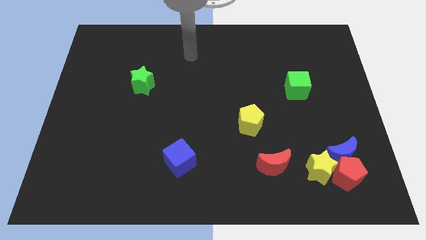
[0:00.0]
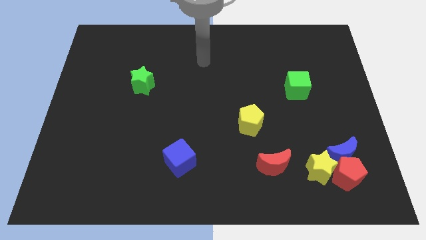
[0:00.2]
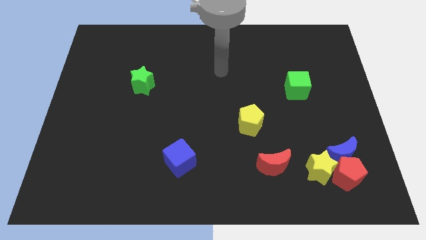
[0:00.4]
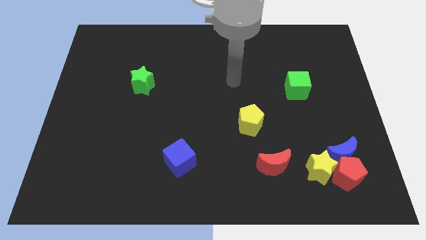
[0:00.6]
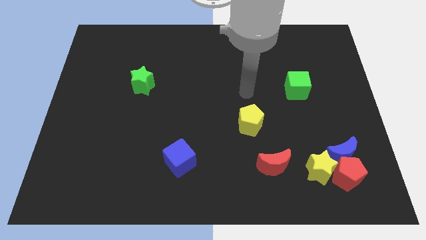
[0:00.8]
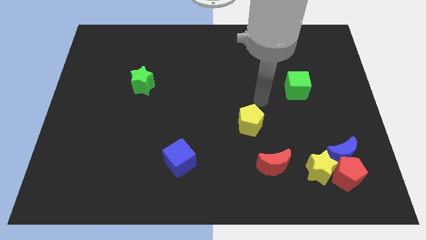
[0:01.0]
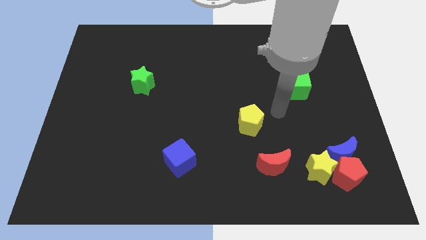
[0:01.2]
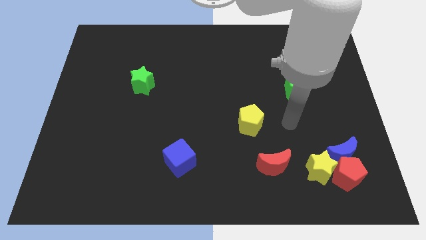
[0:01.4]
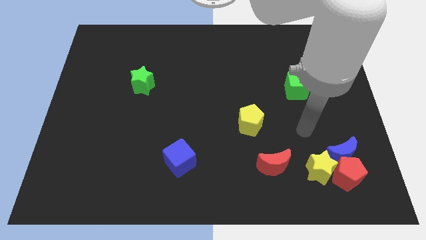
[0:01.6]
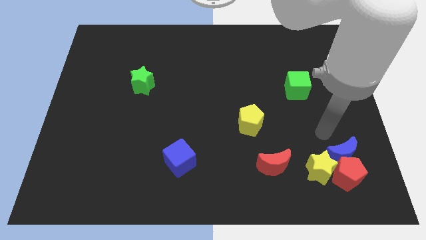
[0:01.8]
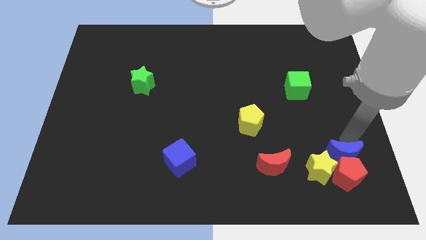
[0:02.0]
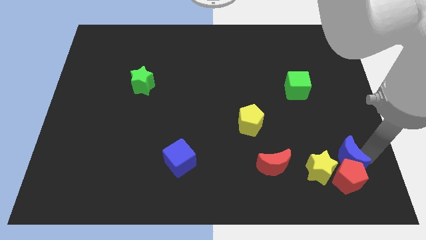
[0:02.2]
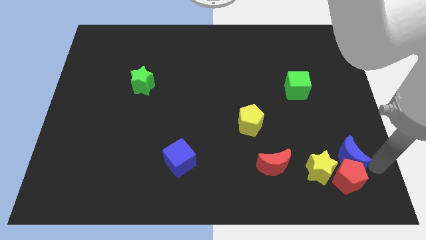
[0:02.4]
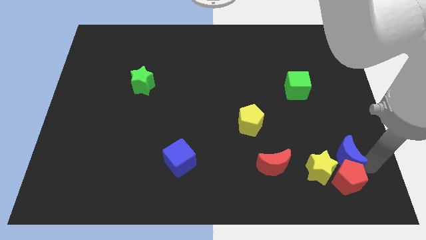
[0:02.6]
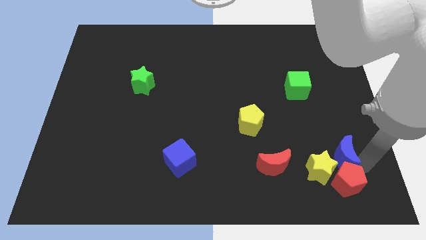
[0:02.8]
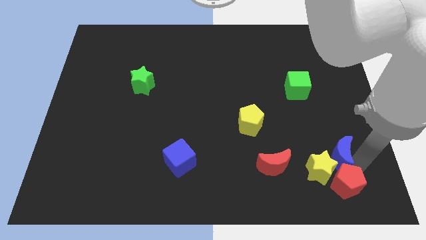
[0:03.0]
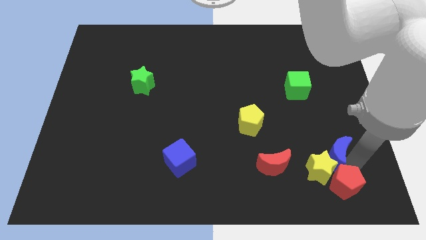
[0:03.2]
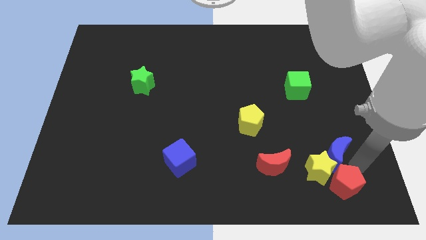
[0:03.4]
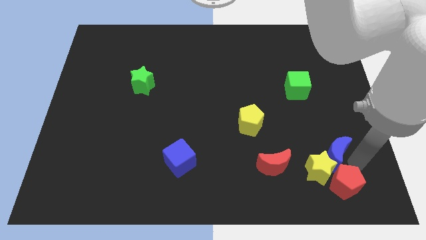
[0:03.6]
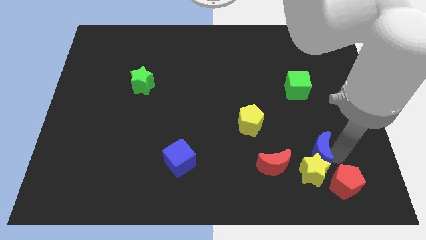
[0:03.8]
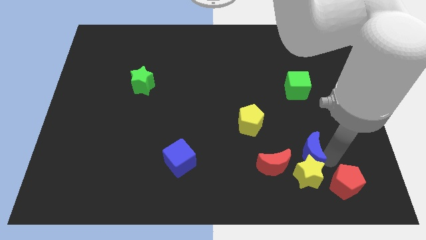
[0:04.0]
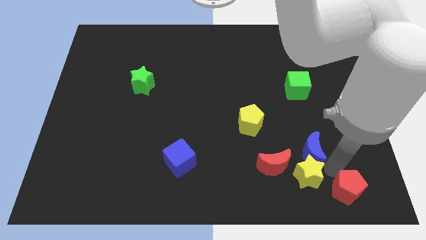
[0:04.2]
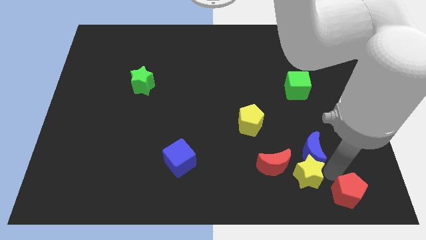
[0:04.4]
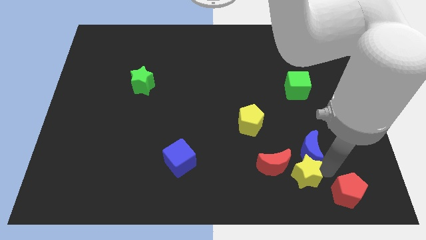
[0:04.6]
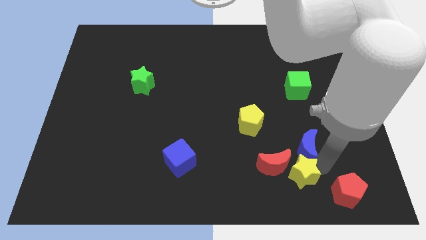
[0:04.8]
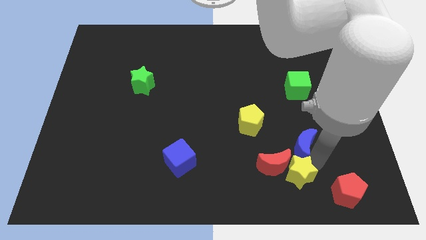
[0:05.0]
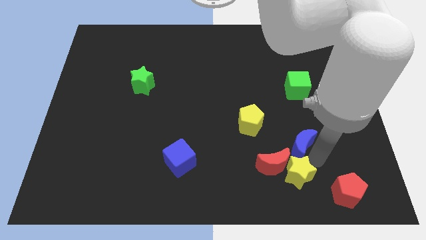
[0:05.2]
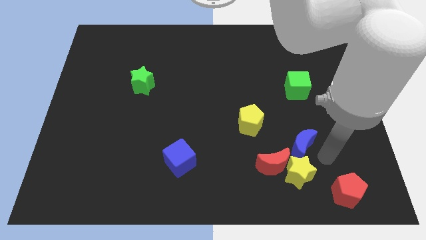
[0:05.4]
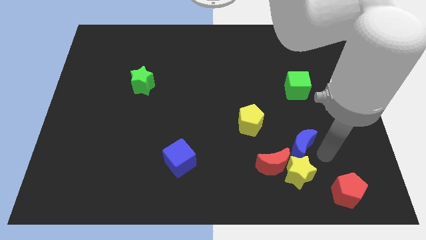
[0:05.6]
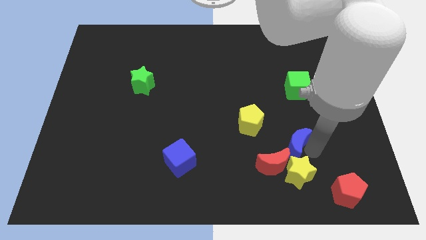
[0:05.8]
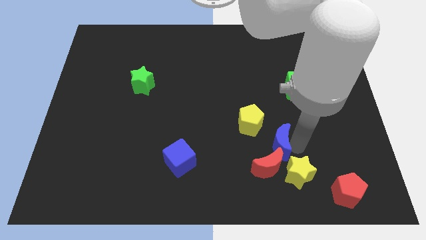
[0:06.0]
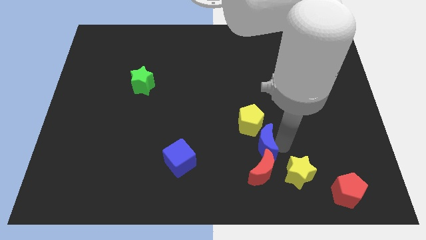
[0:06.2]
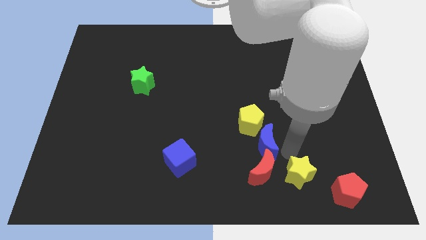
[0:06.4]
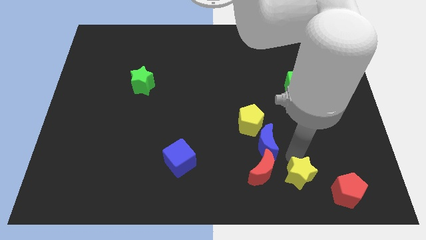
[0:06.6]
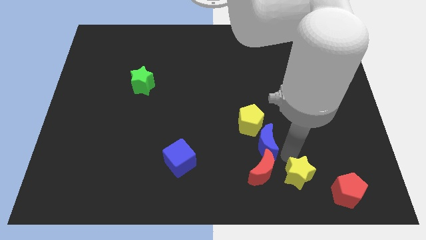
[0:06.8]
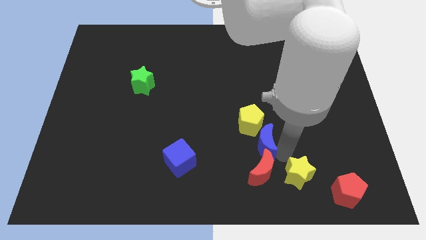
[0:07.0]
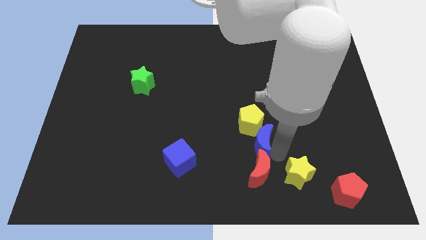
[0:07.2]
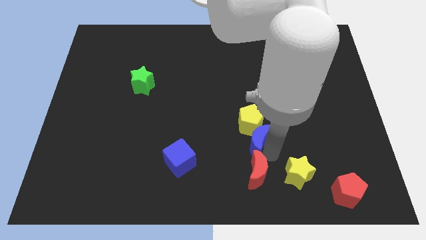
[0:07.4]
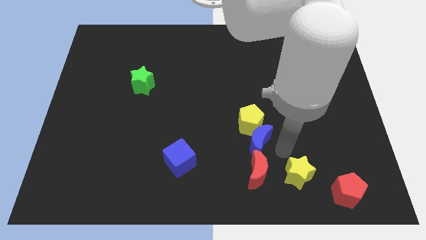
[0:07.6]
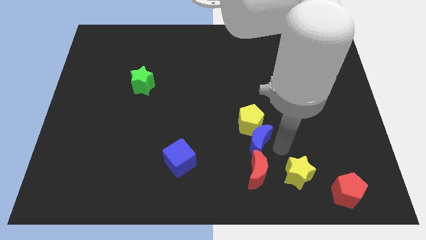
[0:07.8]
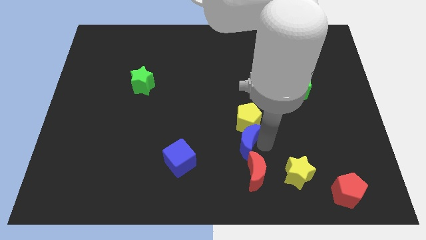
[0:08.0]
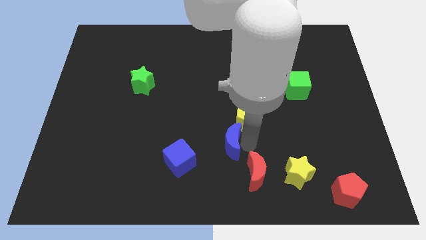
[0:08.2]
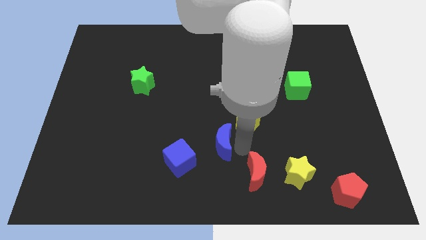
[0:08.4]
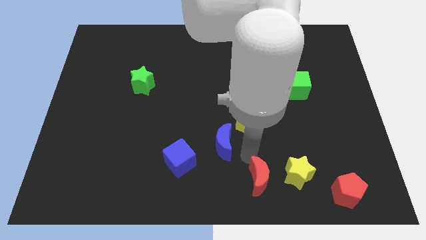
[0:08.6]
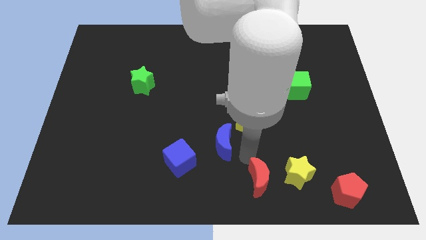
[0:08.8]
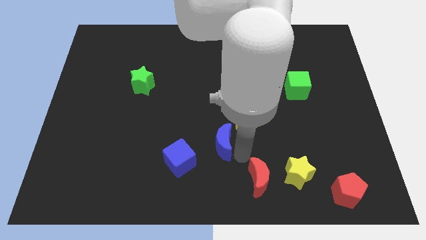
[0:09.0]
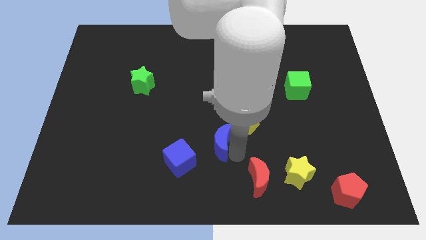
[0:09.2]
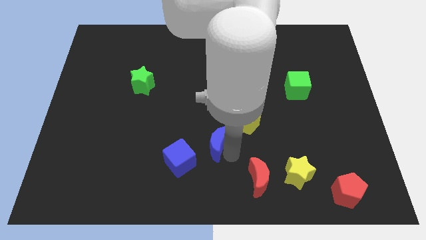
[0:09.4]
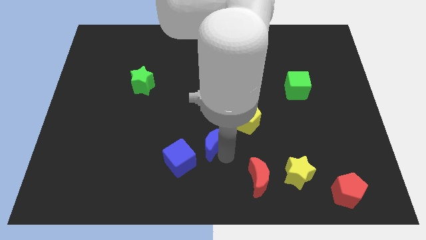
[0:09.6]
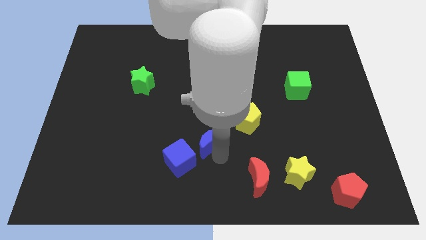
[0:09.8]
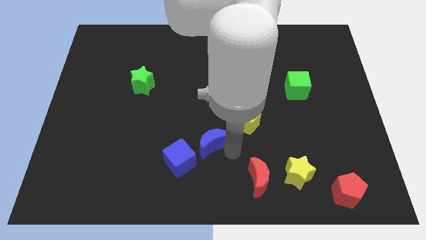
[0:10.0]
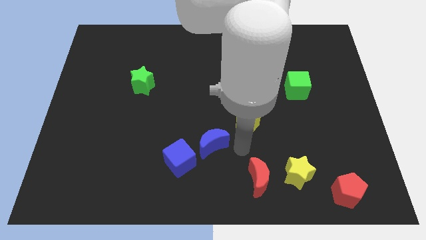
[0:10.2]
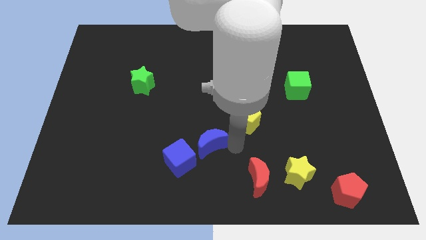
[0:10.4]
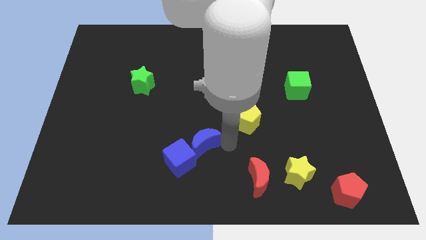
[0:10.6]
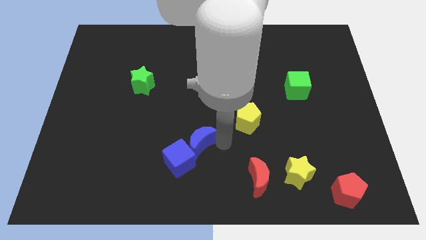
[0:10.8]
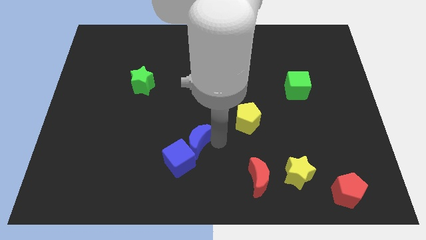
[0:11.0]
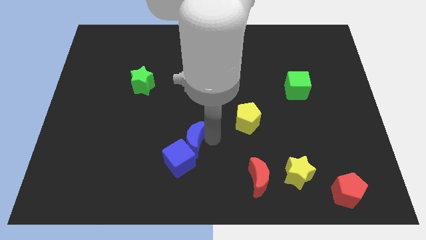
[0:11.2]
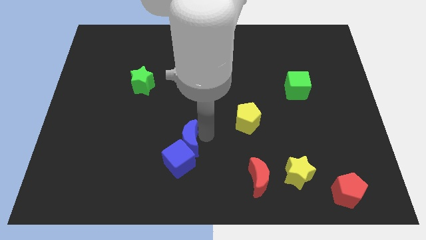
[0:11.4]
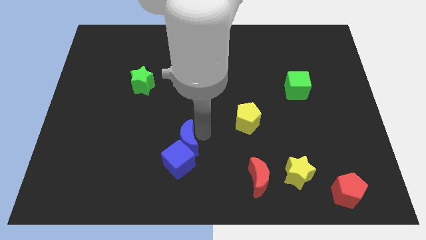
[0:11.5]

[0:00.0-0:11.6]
slide the blue moon diagonally up and to the left of the blue cube

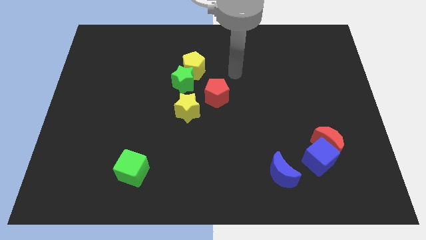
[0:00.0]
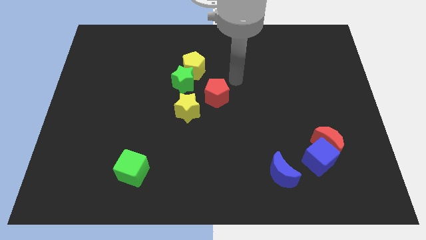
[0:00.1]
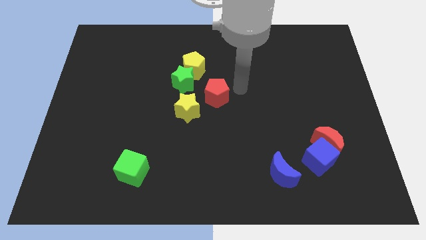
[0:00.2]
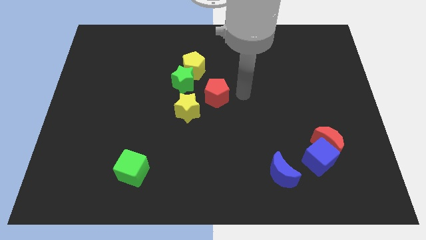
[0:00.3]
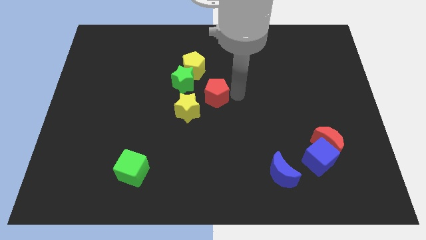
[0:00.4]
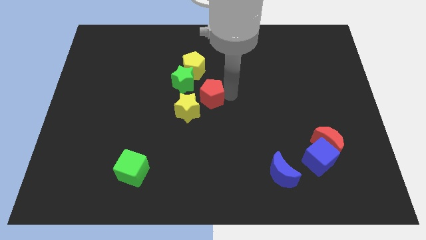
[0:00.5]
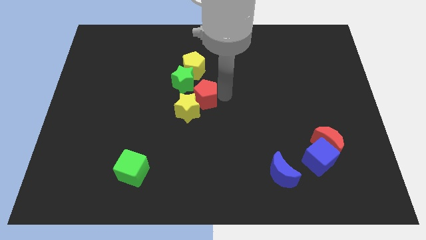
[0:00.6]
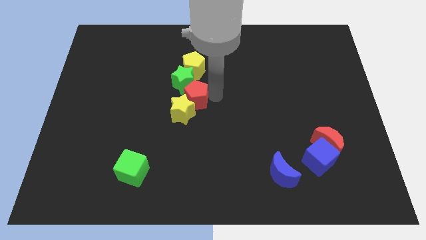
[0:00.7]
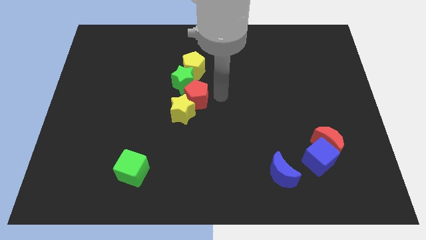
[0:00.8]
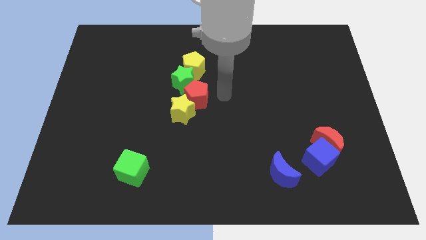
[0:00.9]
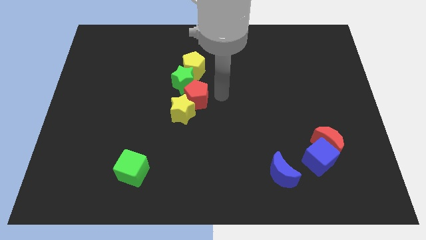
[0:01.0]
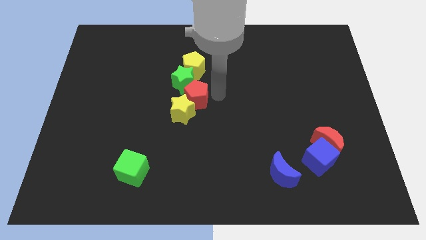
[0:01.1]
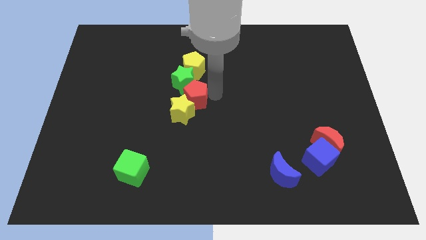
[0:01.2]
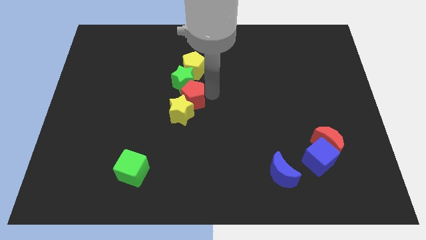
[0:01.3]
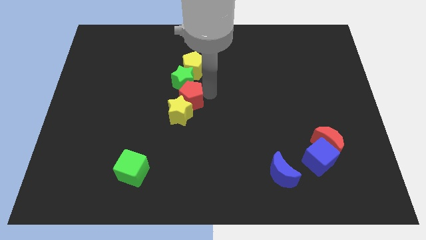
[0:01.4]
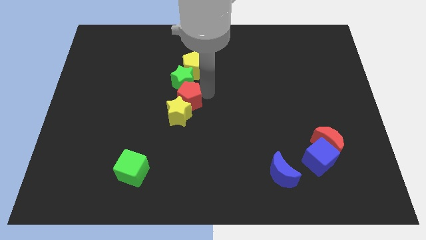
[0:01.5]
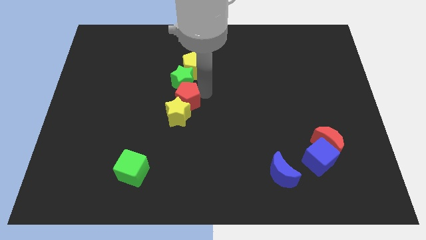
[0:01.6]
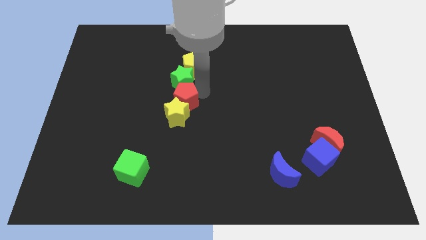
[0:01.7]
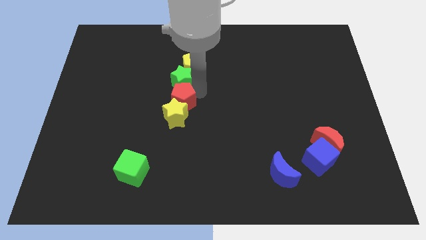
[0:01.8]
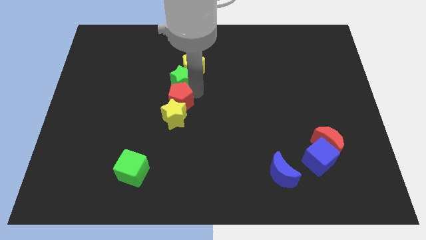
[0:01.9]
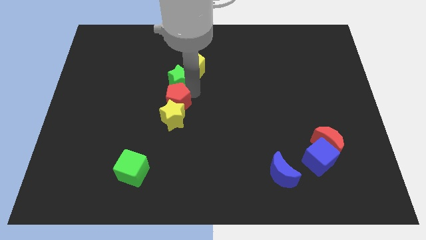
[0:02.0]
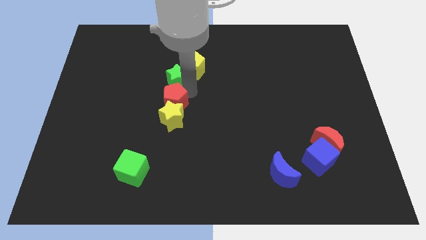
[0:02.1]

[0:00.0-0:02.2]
slide the red pentagon to the bottom left of the yellow pentagon
